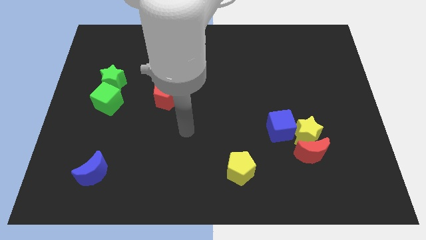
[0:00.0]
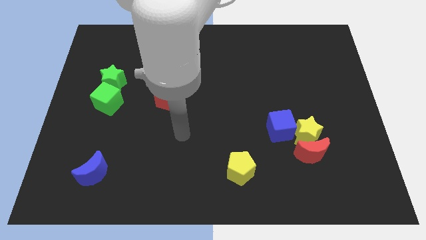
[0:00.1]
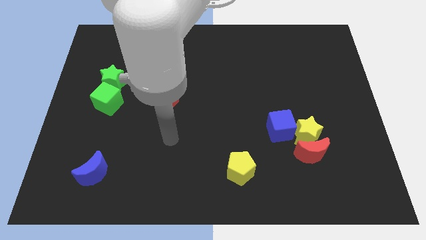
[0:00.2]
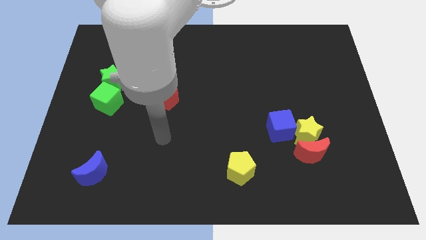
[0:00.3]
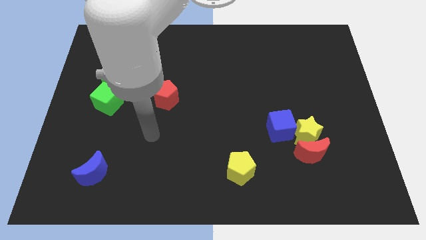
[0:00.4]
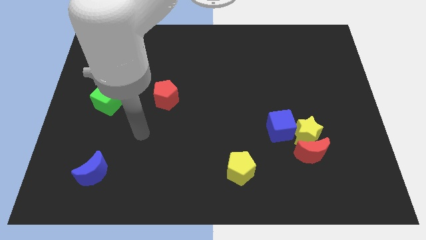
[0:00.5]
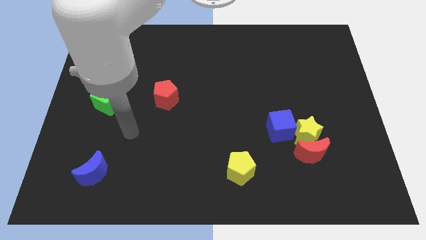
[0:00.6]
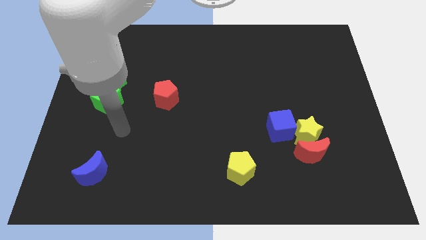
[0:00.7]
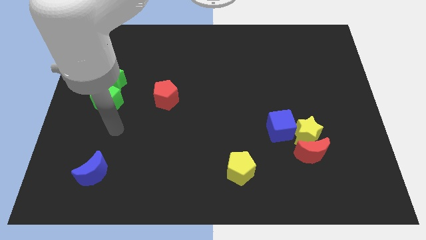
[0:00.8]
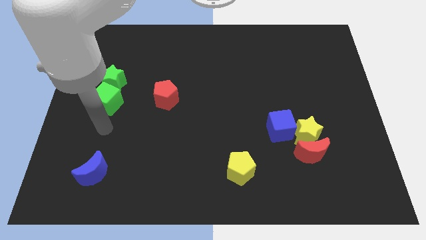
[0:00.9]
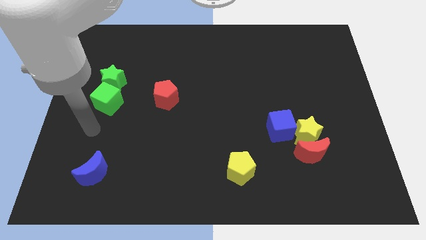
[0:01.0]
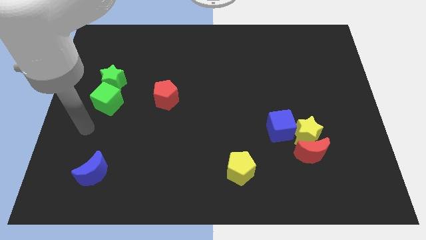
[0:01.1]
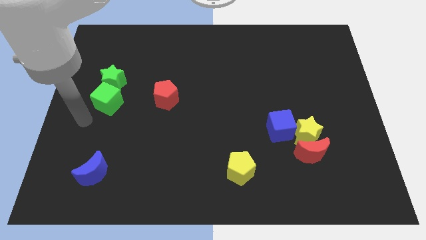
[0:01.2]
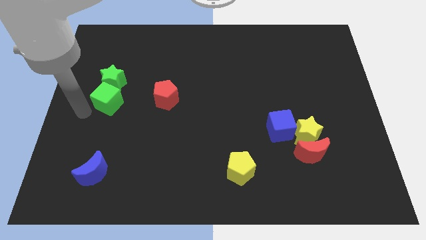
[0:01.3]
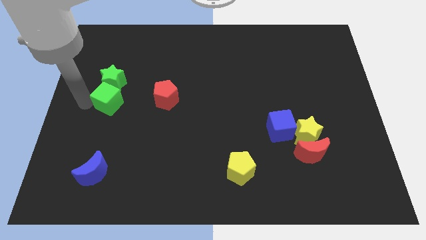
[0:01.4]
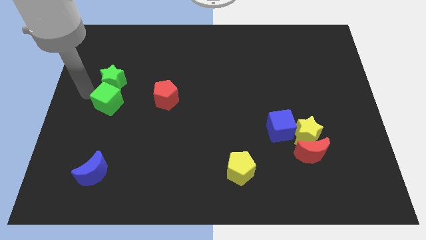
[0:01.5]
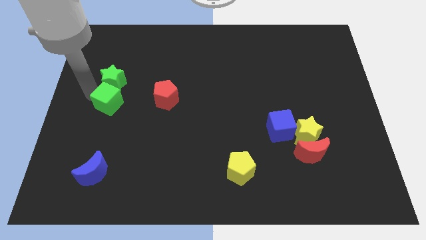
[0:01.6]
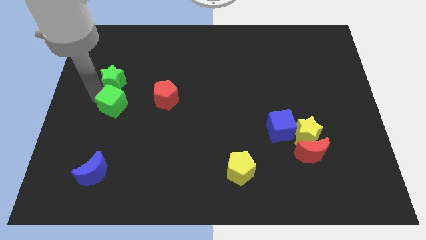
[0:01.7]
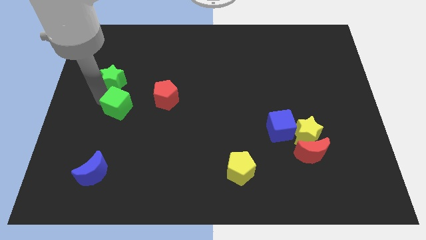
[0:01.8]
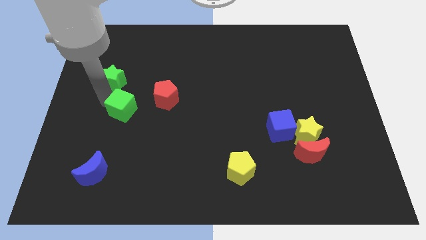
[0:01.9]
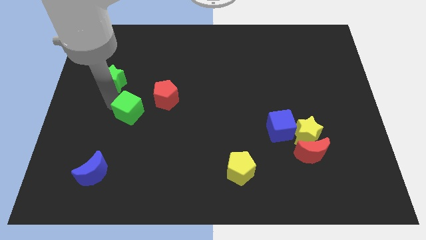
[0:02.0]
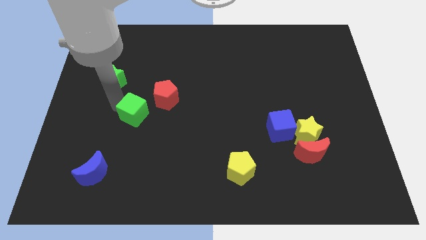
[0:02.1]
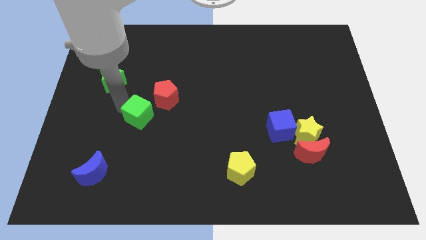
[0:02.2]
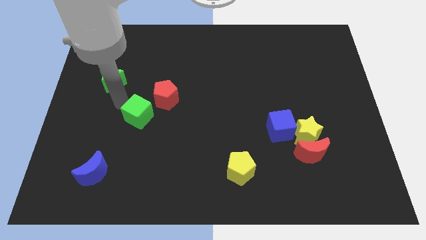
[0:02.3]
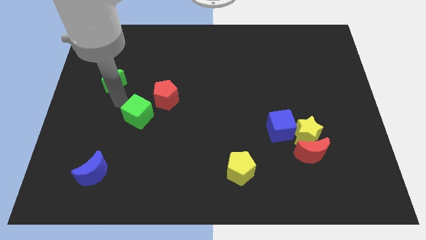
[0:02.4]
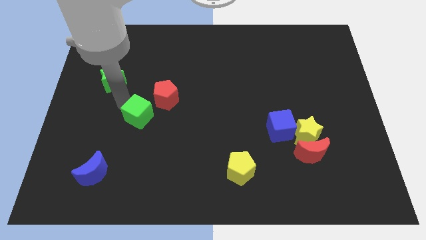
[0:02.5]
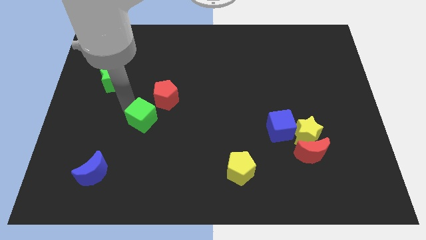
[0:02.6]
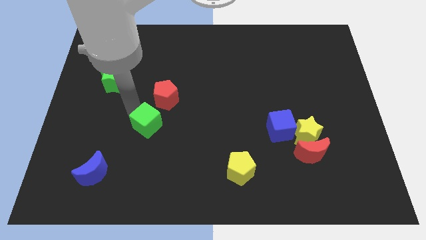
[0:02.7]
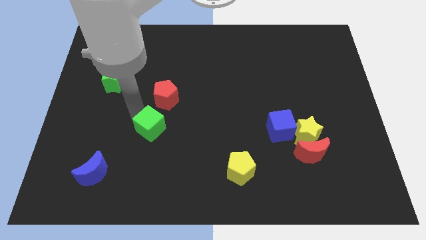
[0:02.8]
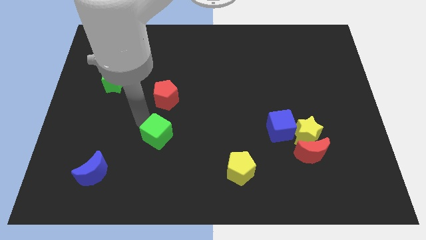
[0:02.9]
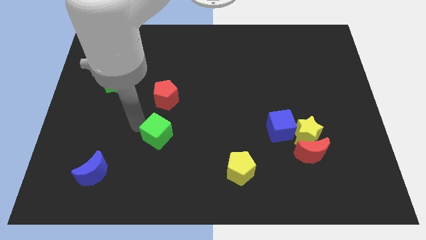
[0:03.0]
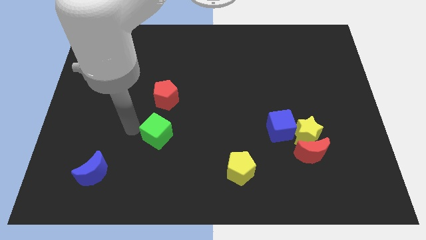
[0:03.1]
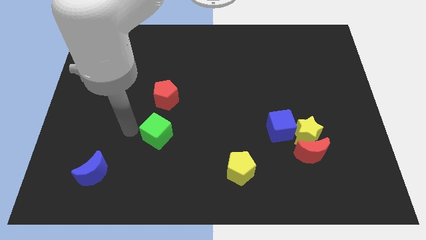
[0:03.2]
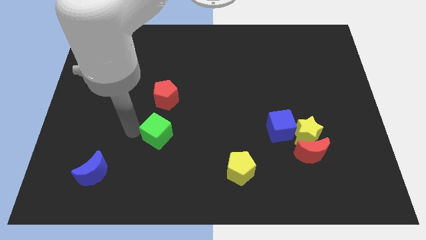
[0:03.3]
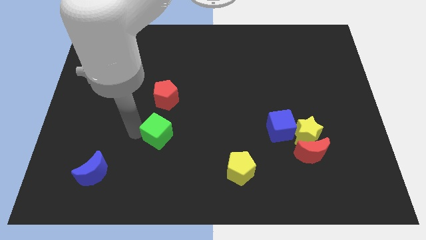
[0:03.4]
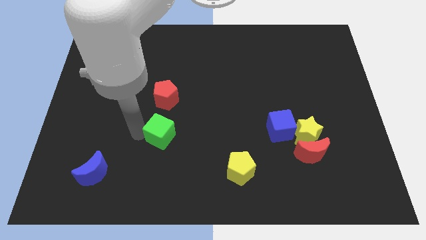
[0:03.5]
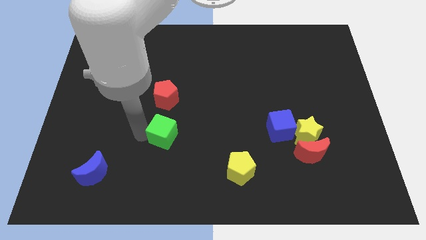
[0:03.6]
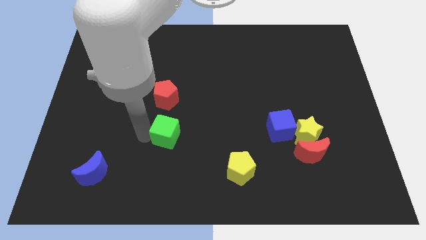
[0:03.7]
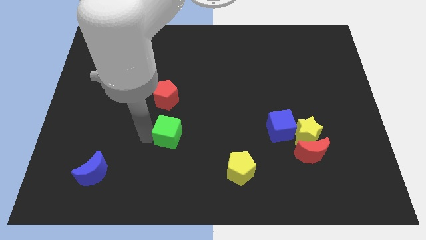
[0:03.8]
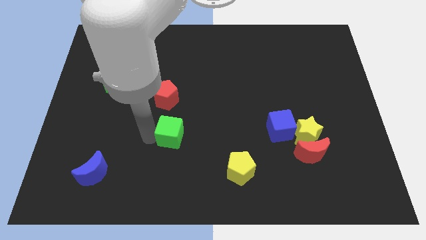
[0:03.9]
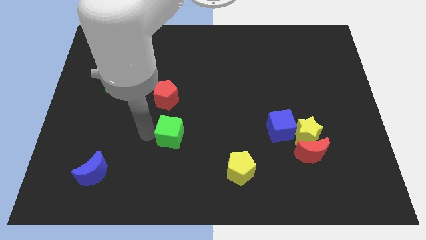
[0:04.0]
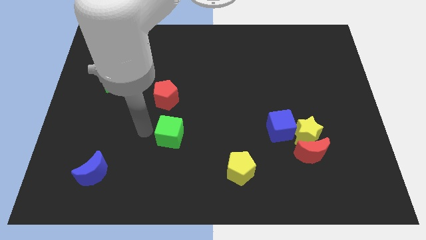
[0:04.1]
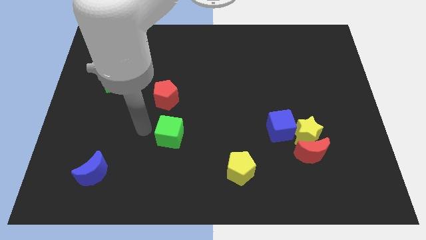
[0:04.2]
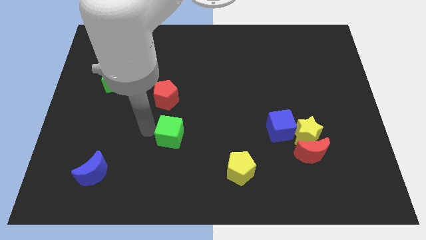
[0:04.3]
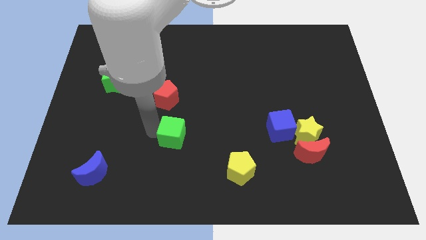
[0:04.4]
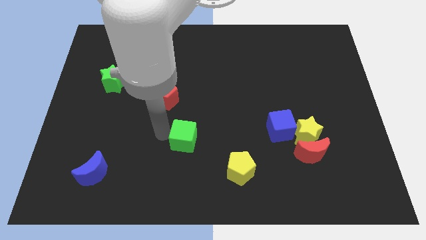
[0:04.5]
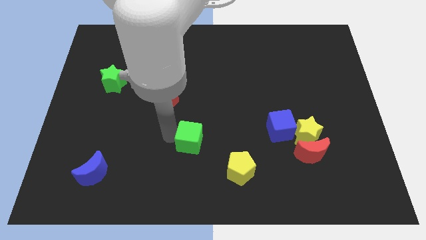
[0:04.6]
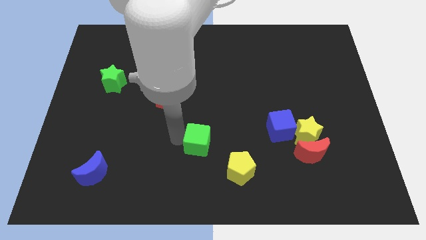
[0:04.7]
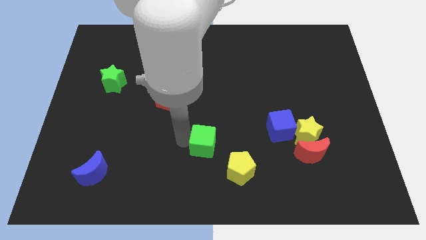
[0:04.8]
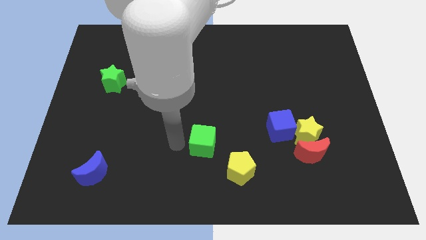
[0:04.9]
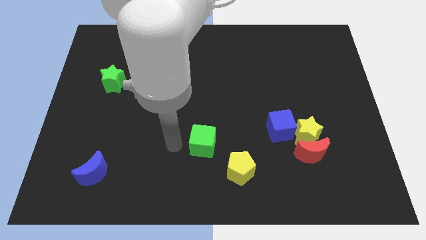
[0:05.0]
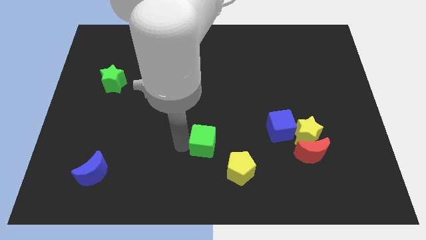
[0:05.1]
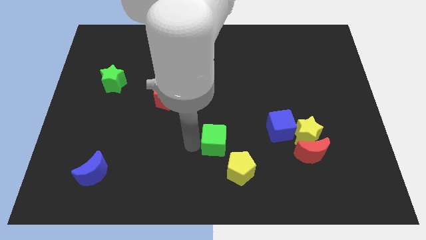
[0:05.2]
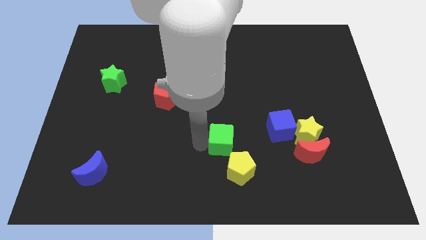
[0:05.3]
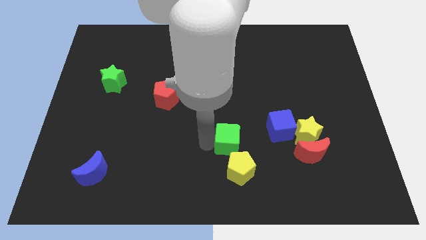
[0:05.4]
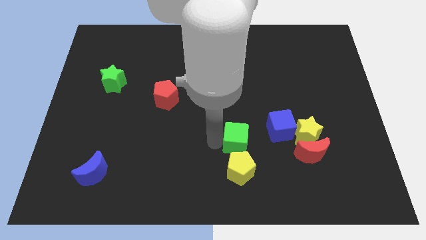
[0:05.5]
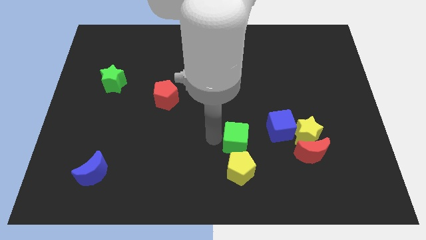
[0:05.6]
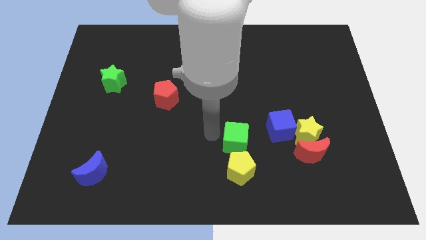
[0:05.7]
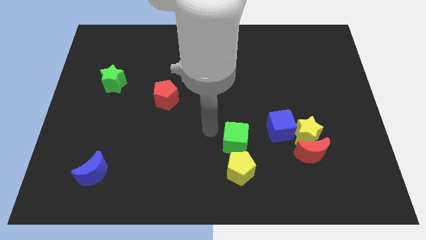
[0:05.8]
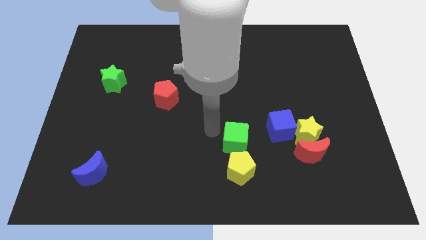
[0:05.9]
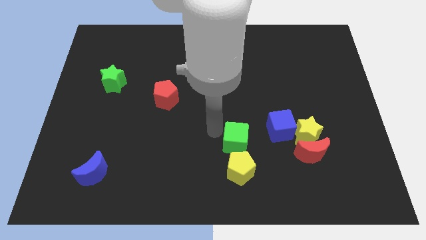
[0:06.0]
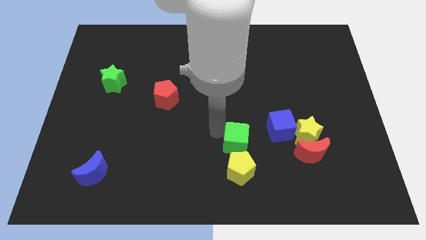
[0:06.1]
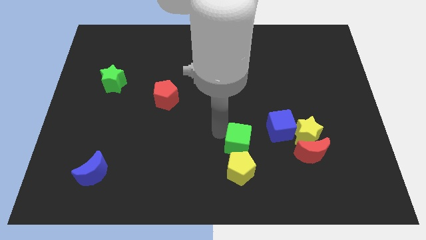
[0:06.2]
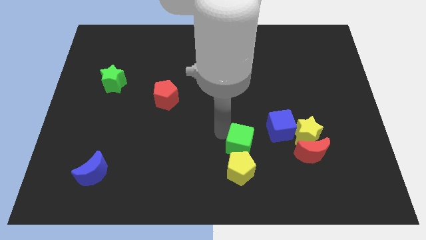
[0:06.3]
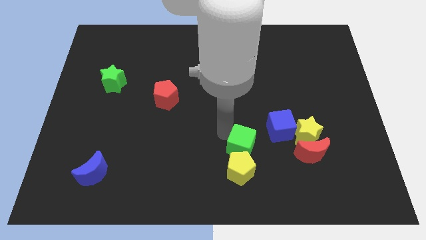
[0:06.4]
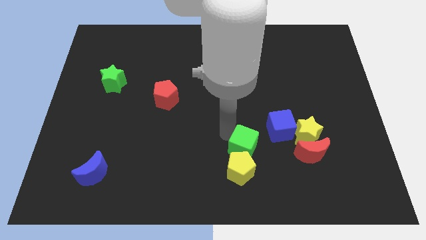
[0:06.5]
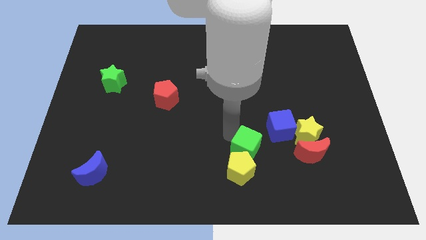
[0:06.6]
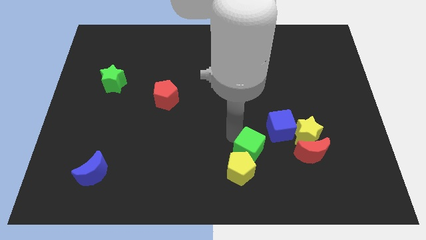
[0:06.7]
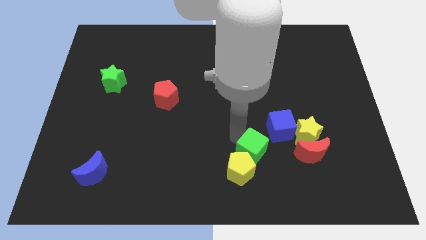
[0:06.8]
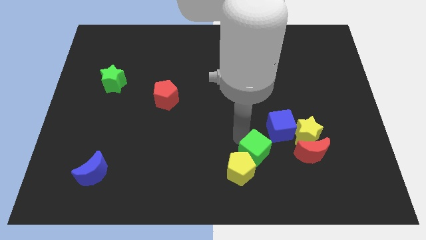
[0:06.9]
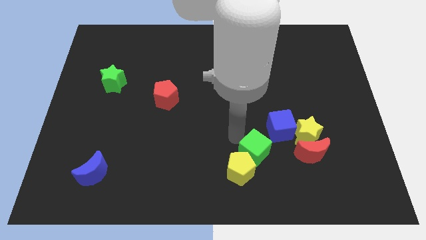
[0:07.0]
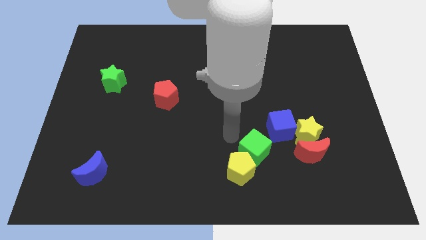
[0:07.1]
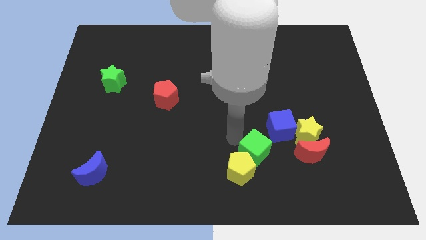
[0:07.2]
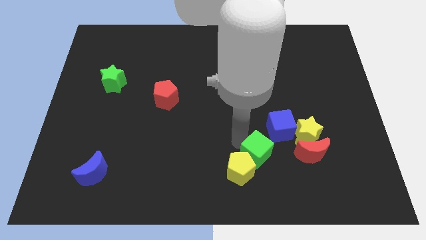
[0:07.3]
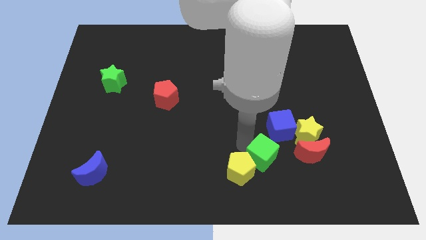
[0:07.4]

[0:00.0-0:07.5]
move the green cube below the blue cube
